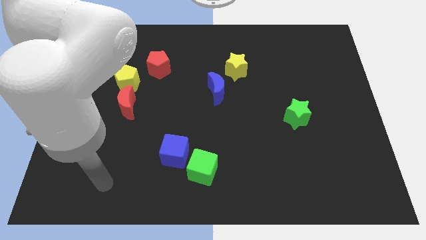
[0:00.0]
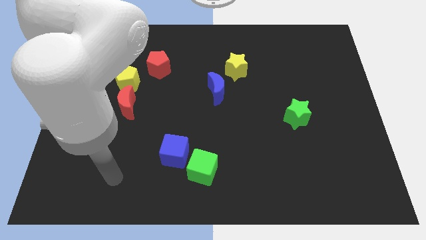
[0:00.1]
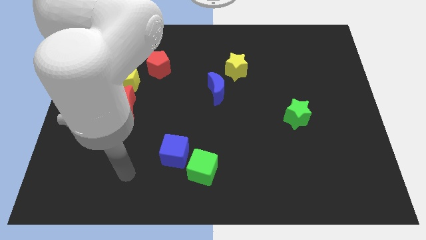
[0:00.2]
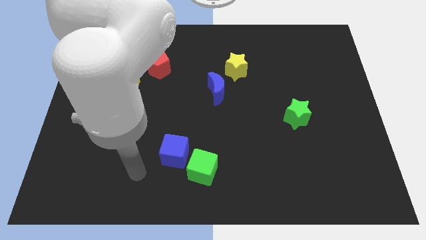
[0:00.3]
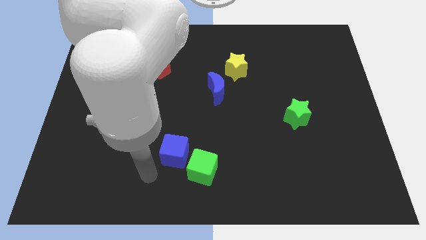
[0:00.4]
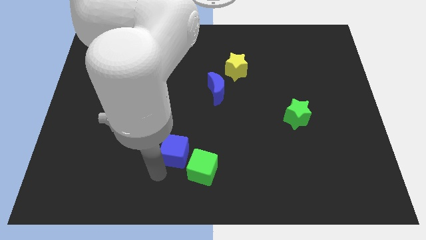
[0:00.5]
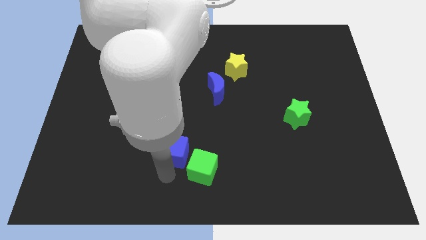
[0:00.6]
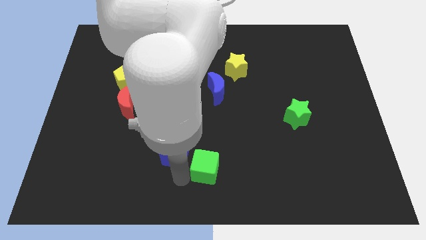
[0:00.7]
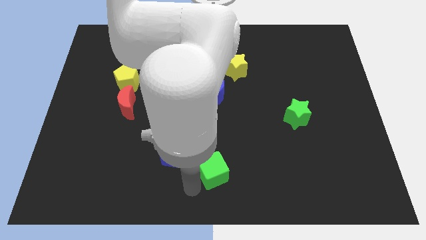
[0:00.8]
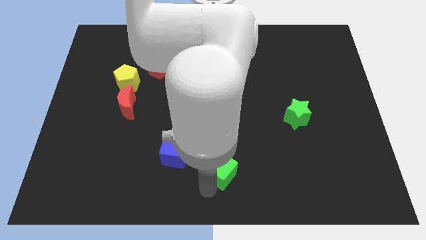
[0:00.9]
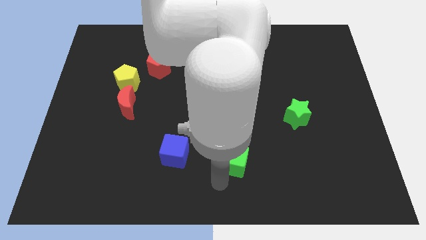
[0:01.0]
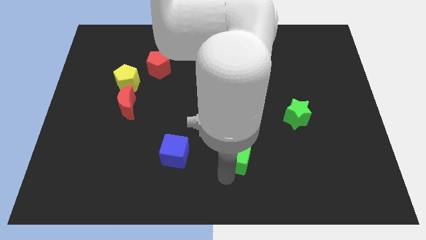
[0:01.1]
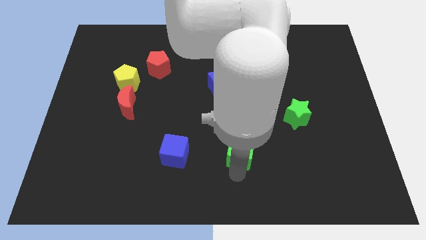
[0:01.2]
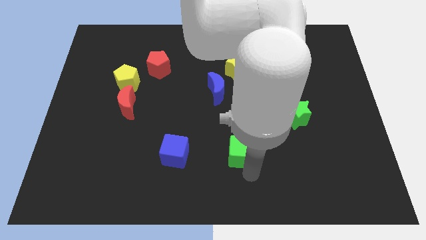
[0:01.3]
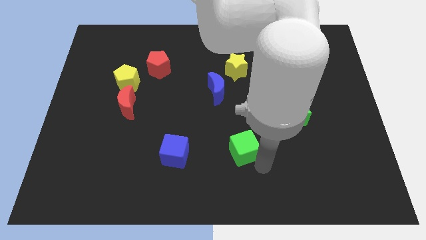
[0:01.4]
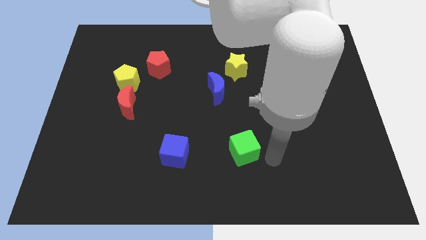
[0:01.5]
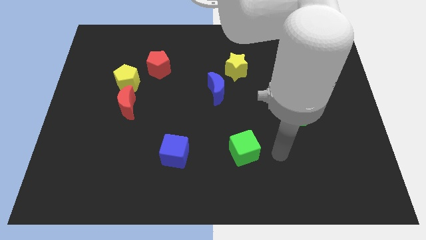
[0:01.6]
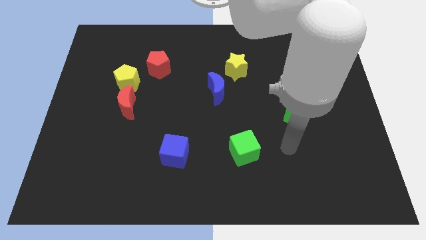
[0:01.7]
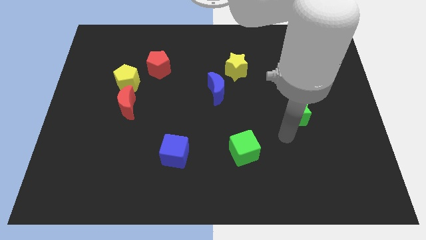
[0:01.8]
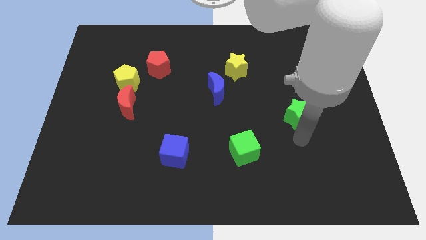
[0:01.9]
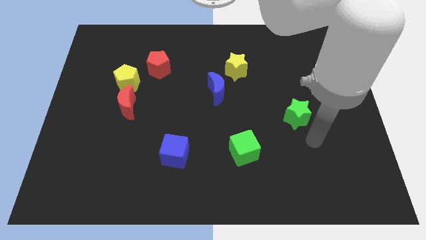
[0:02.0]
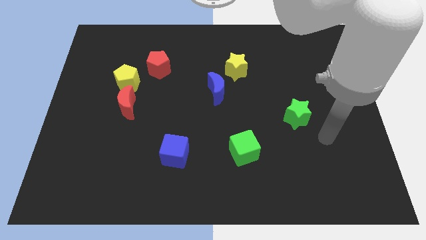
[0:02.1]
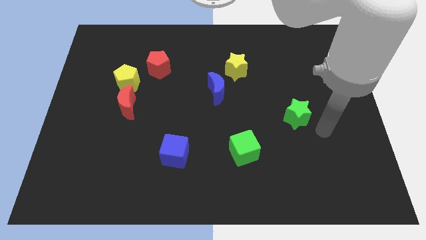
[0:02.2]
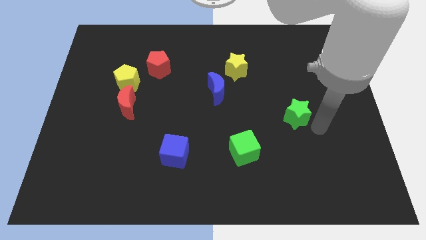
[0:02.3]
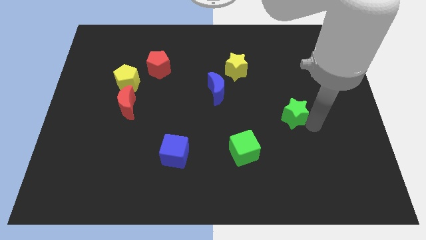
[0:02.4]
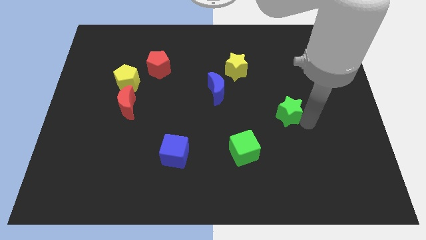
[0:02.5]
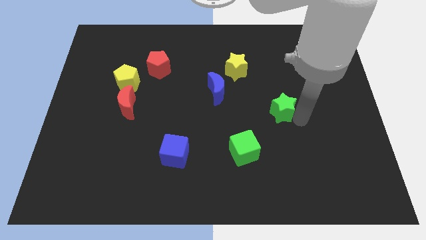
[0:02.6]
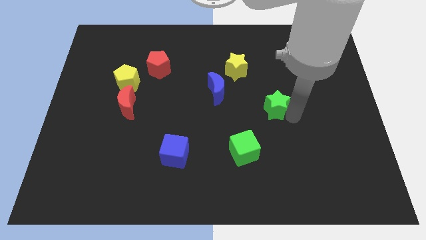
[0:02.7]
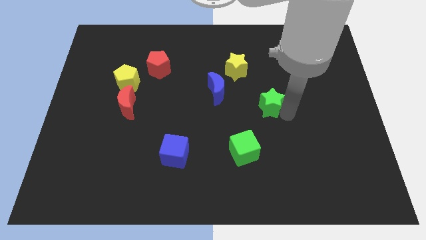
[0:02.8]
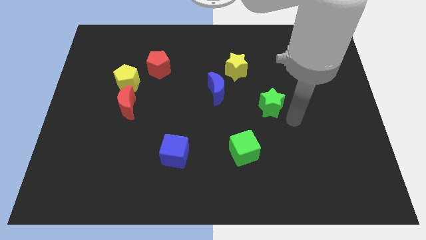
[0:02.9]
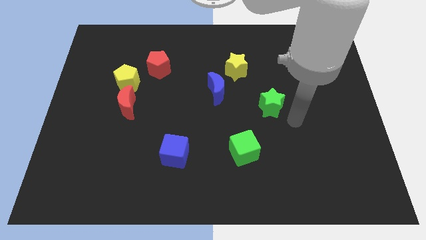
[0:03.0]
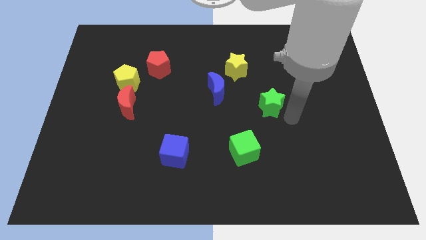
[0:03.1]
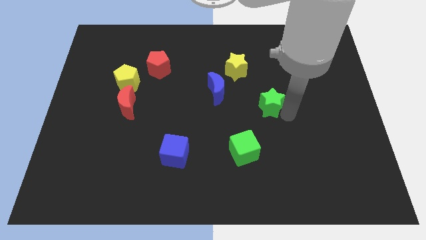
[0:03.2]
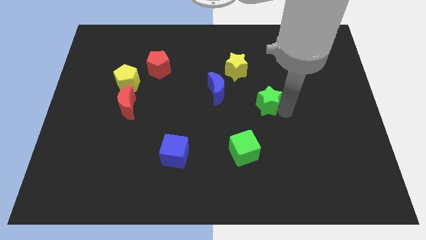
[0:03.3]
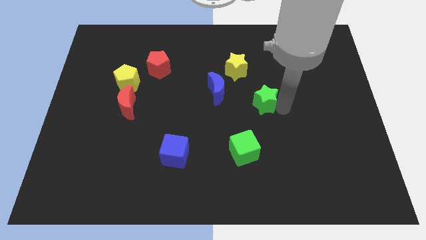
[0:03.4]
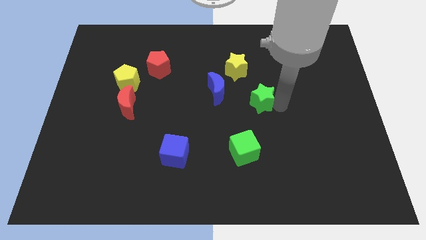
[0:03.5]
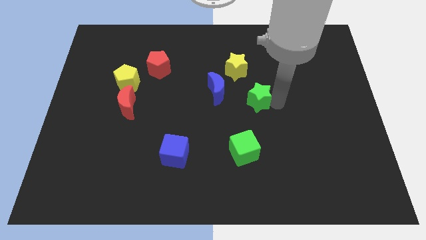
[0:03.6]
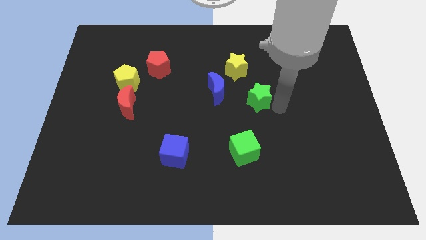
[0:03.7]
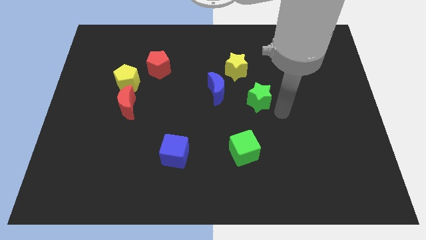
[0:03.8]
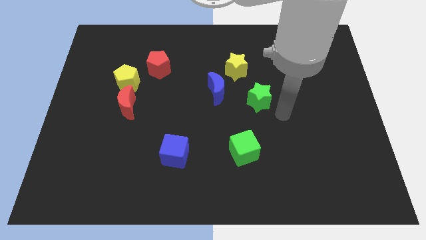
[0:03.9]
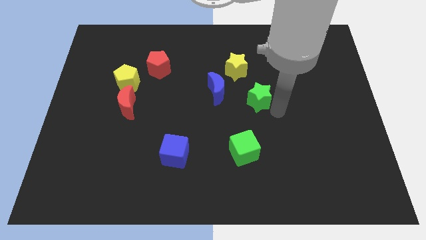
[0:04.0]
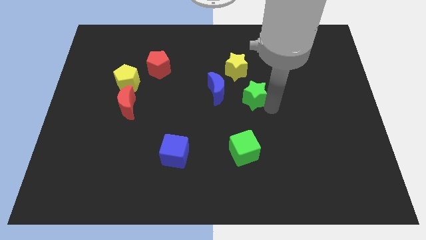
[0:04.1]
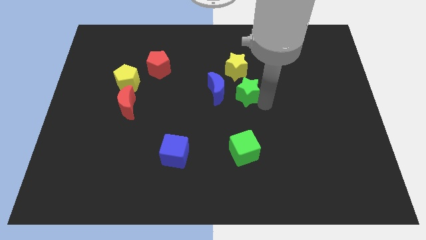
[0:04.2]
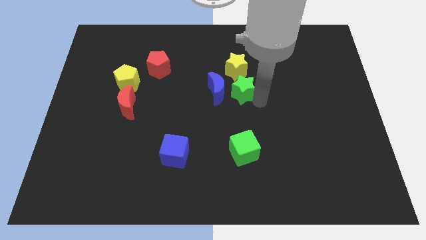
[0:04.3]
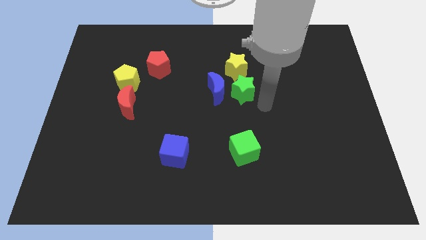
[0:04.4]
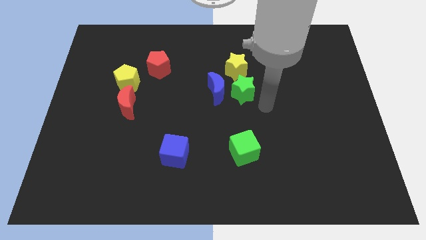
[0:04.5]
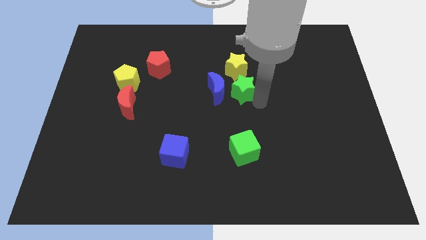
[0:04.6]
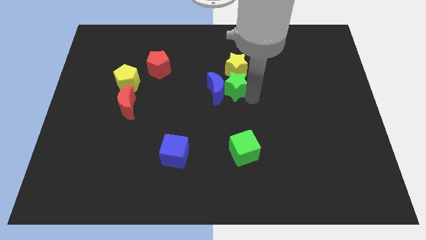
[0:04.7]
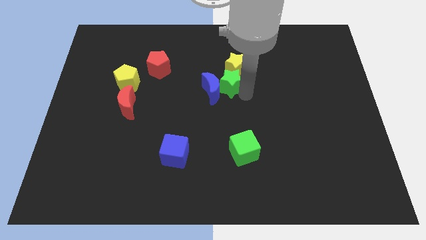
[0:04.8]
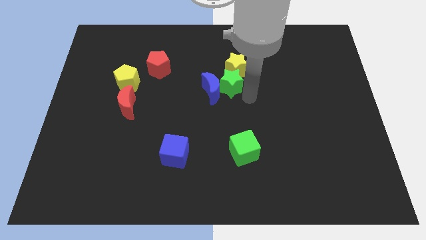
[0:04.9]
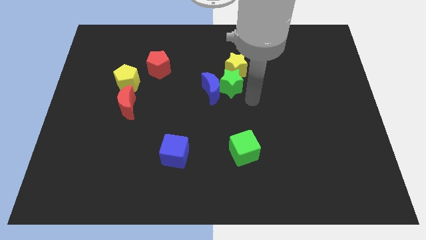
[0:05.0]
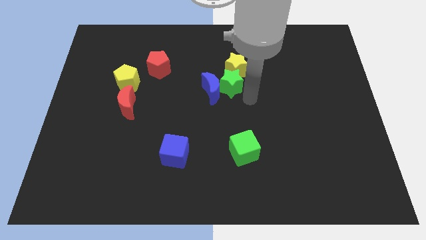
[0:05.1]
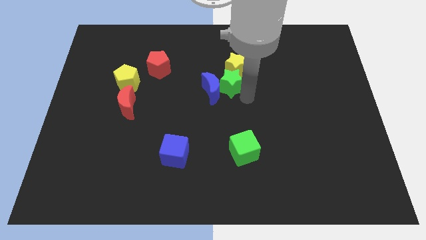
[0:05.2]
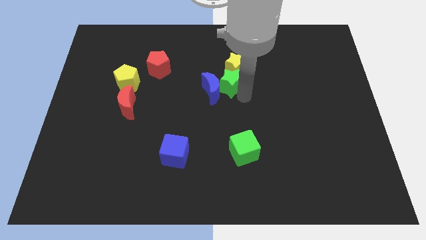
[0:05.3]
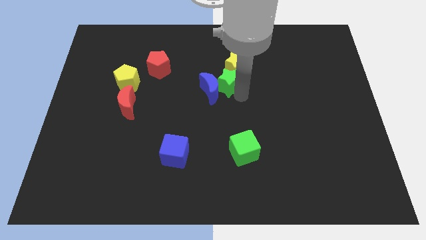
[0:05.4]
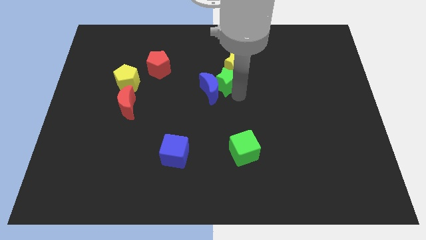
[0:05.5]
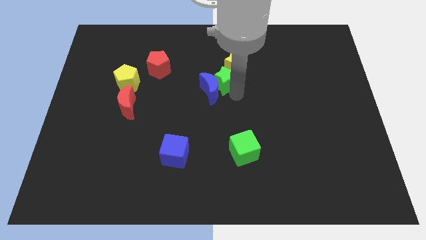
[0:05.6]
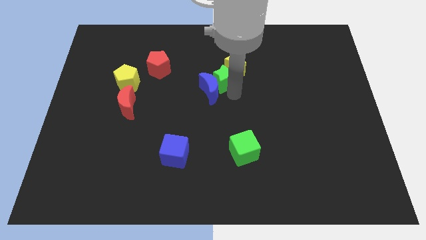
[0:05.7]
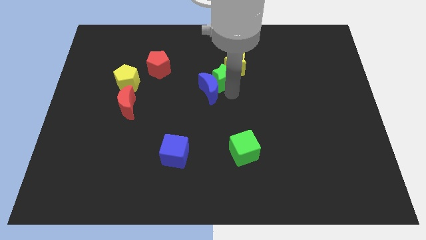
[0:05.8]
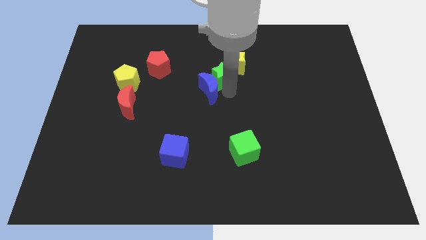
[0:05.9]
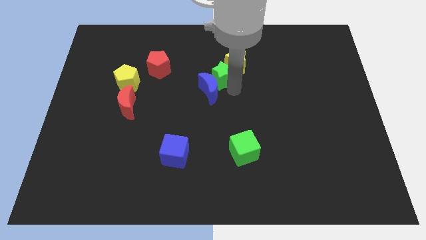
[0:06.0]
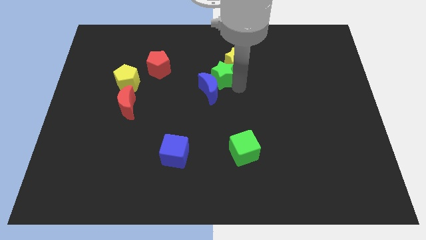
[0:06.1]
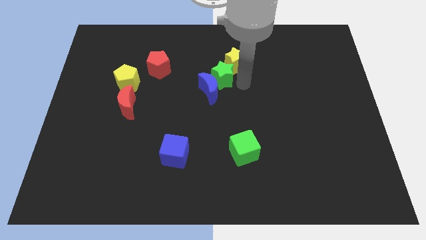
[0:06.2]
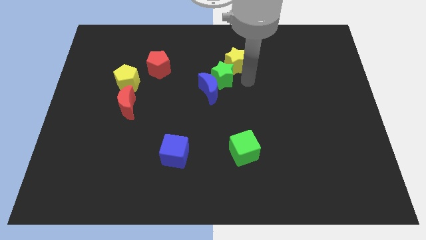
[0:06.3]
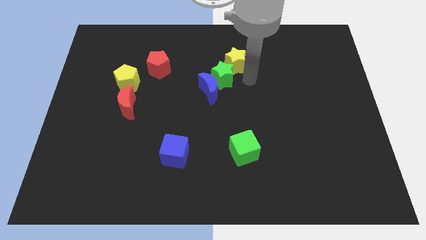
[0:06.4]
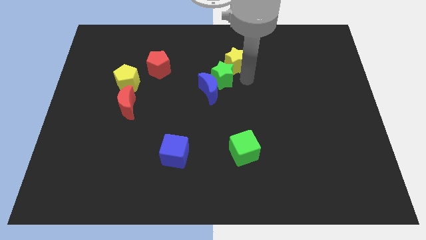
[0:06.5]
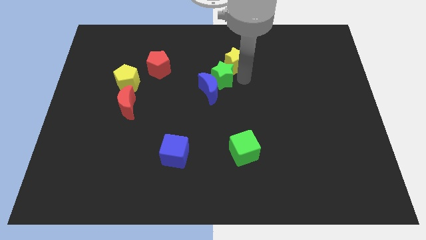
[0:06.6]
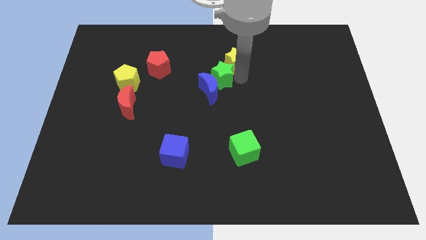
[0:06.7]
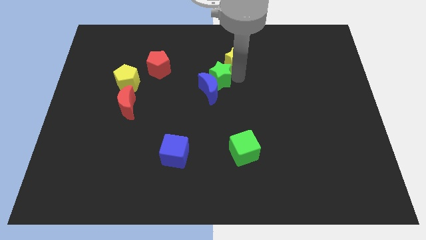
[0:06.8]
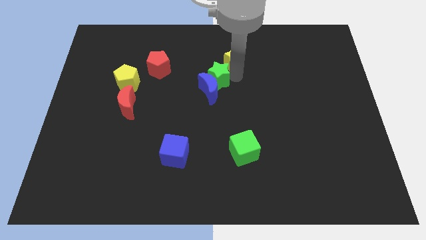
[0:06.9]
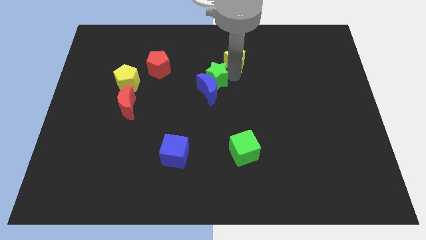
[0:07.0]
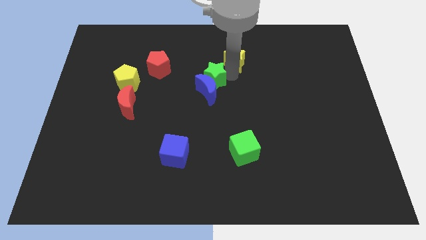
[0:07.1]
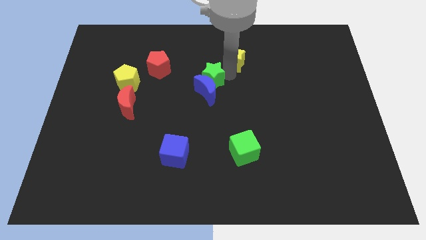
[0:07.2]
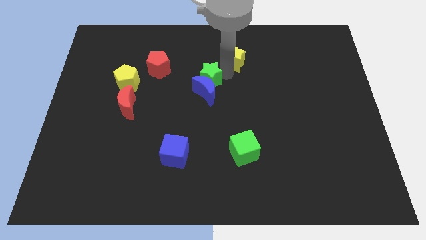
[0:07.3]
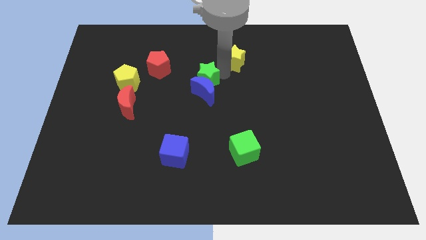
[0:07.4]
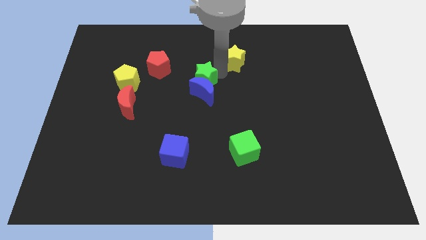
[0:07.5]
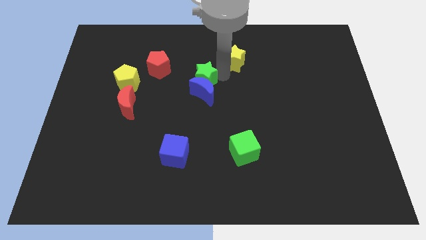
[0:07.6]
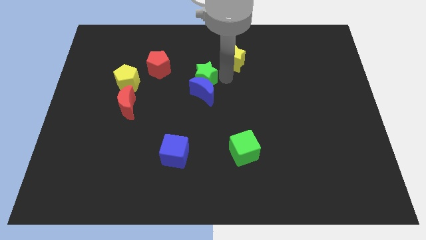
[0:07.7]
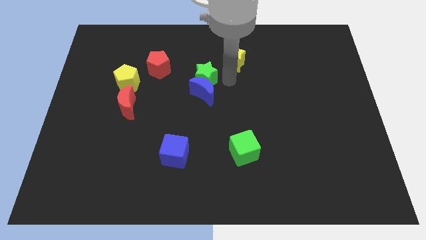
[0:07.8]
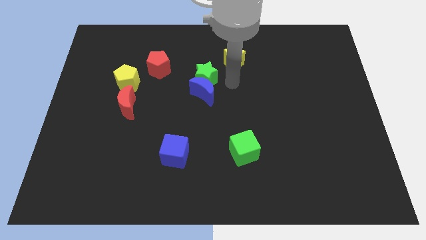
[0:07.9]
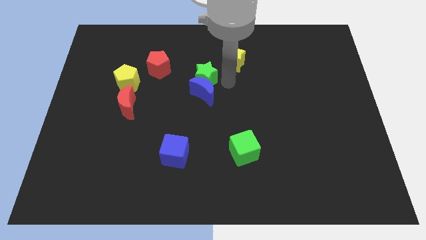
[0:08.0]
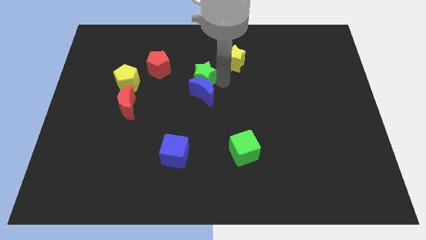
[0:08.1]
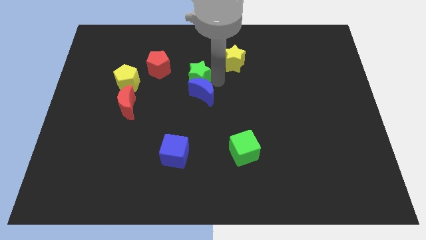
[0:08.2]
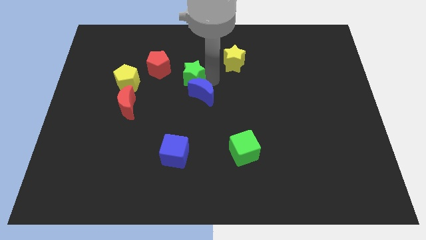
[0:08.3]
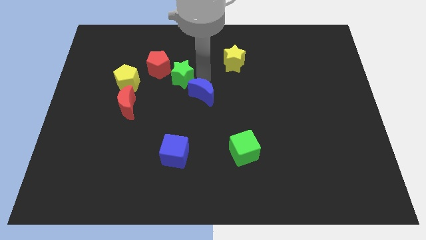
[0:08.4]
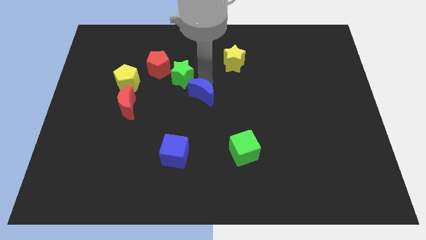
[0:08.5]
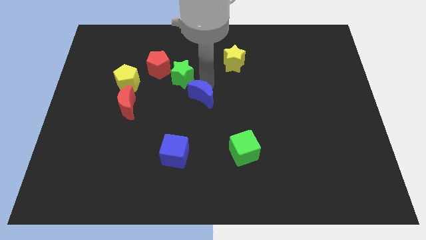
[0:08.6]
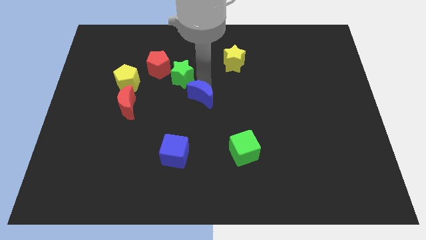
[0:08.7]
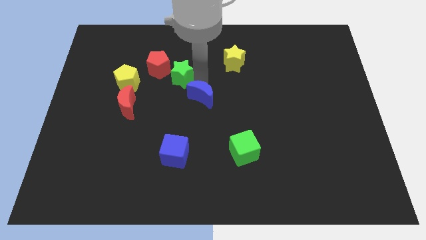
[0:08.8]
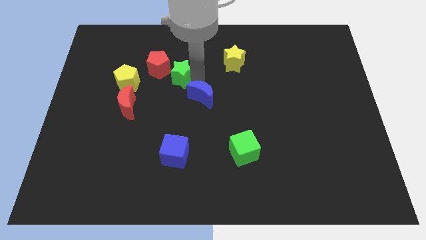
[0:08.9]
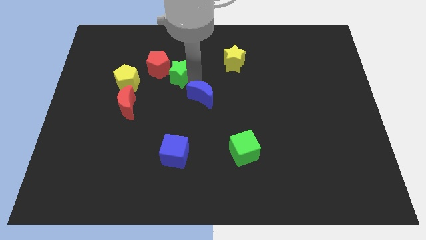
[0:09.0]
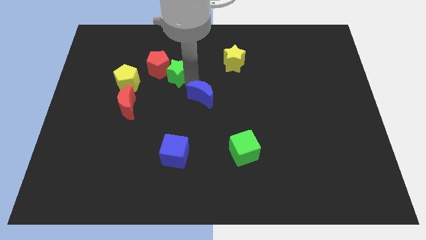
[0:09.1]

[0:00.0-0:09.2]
put the green star close to the red pentagon
